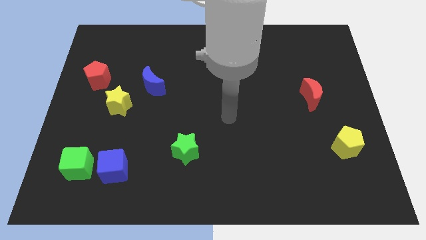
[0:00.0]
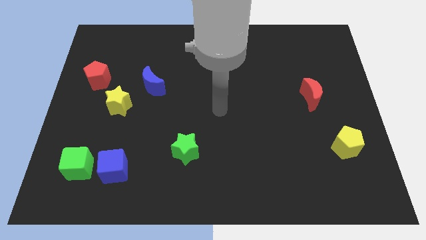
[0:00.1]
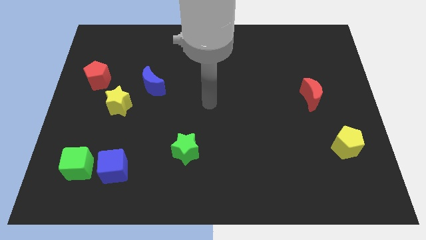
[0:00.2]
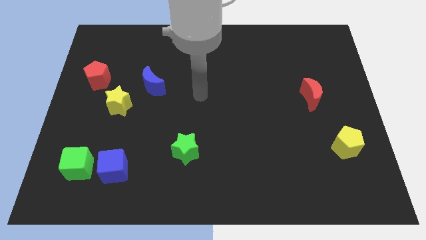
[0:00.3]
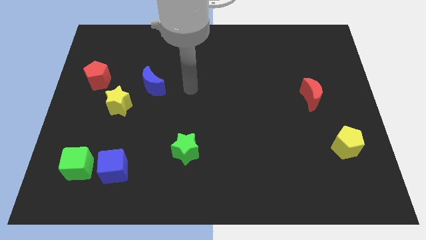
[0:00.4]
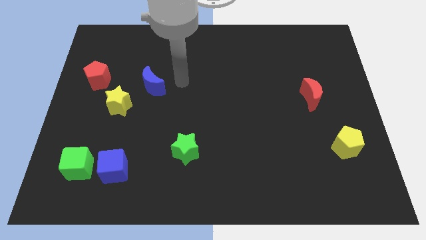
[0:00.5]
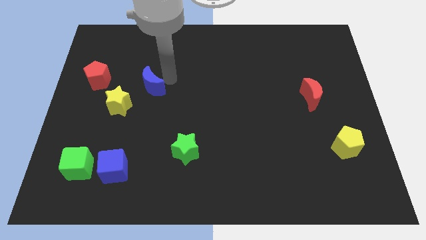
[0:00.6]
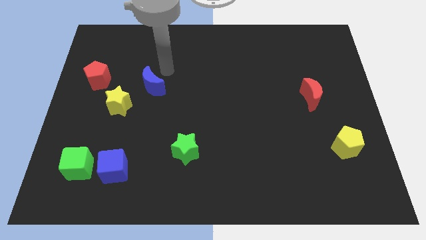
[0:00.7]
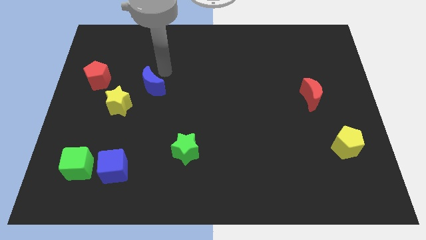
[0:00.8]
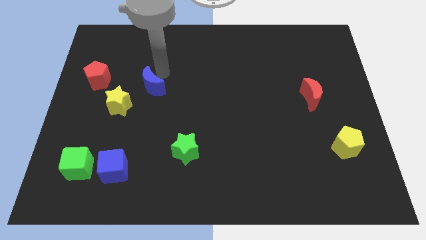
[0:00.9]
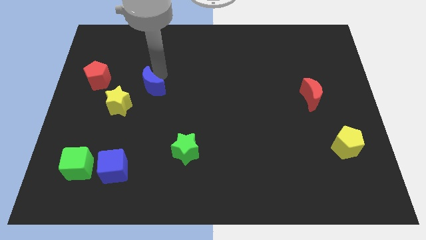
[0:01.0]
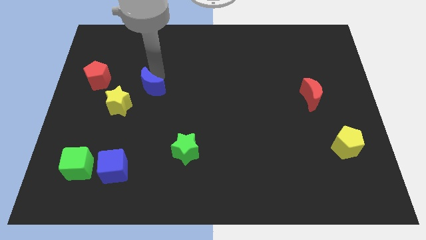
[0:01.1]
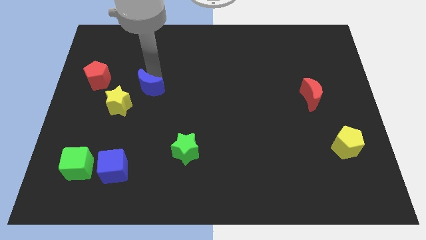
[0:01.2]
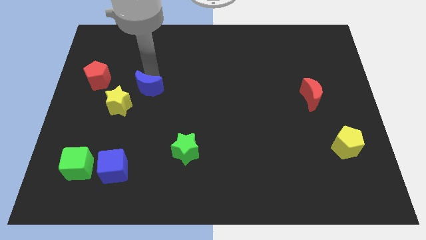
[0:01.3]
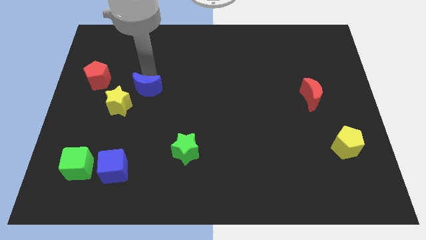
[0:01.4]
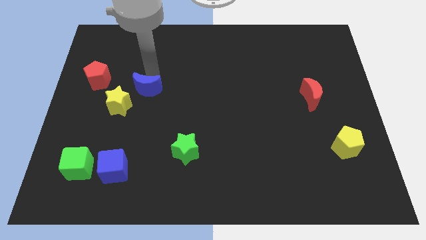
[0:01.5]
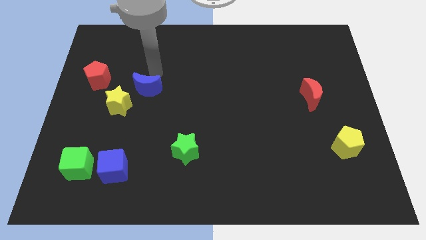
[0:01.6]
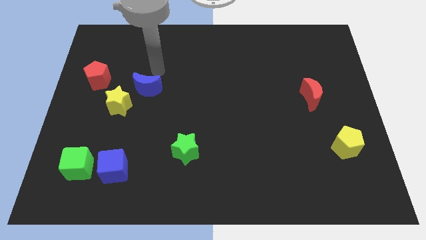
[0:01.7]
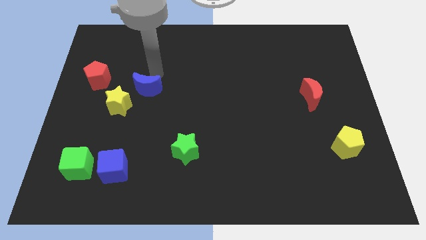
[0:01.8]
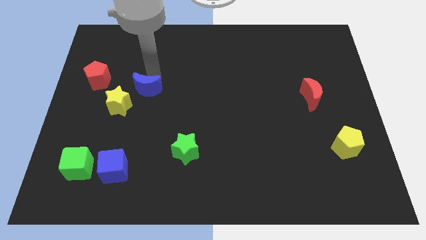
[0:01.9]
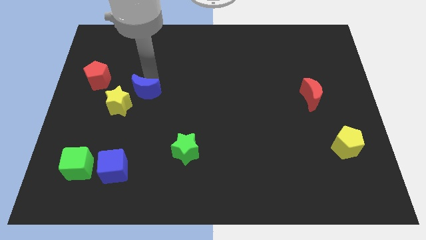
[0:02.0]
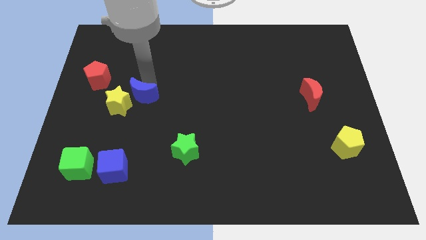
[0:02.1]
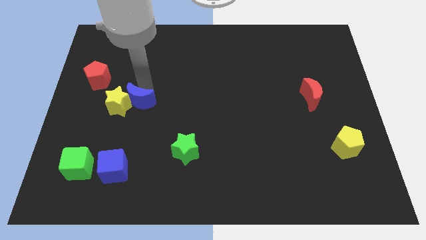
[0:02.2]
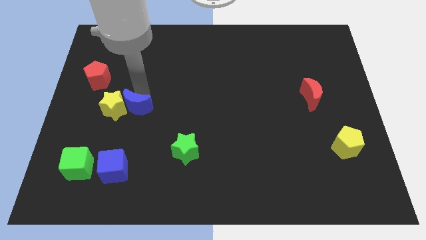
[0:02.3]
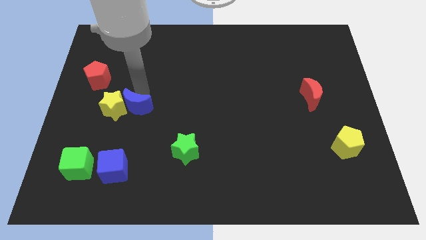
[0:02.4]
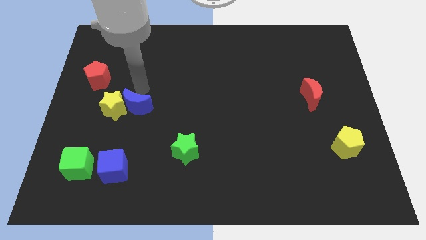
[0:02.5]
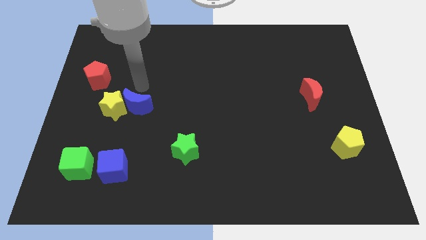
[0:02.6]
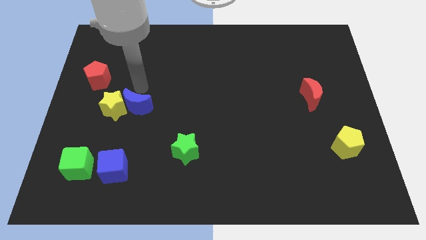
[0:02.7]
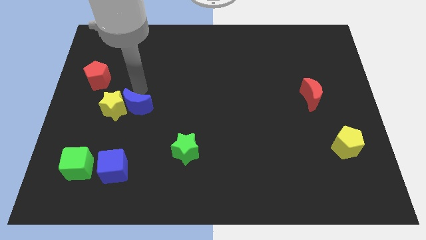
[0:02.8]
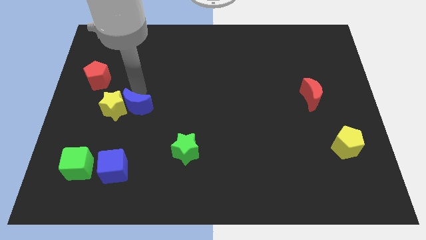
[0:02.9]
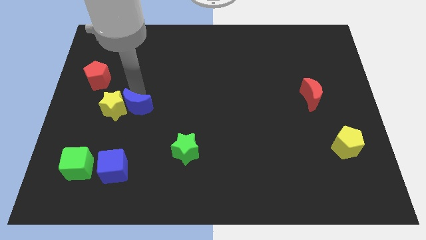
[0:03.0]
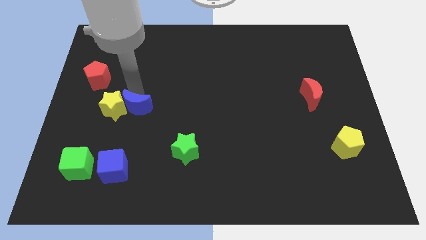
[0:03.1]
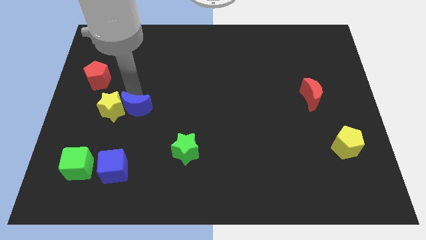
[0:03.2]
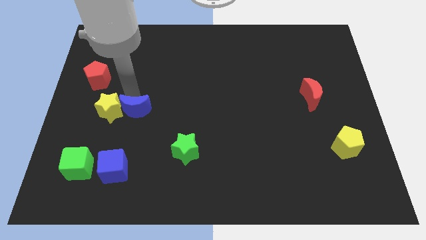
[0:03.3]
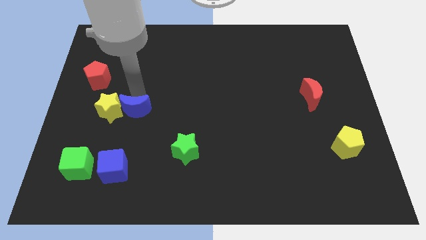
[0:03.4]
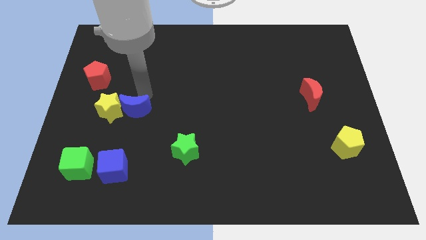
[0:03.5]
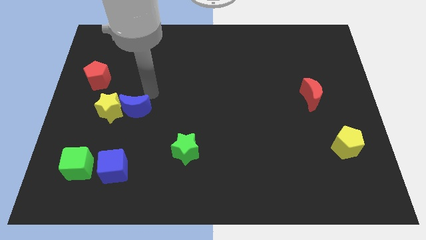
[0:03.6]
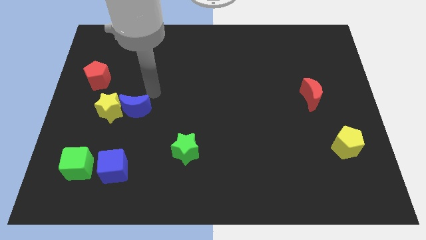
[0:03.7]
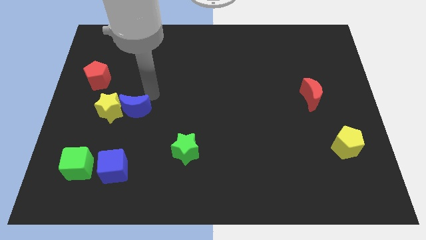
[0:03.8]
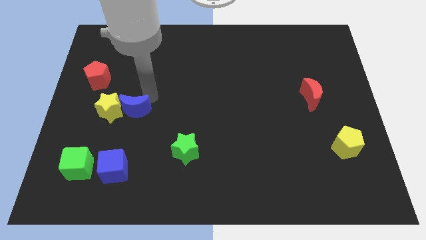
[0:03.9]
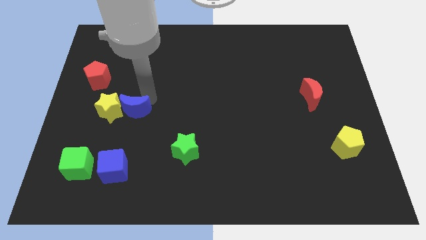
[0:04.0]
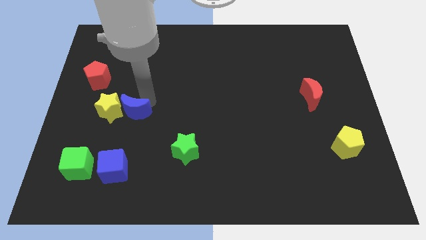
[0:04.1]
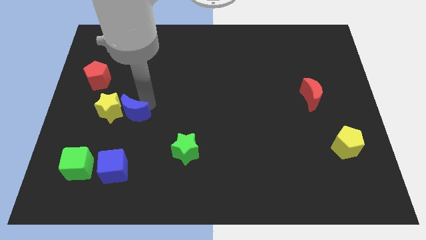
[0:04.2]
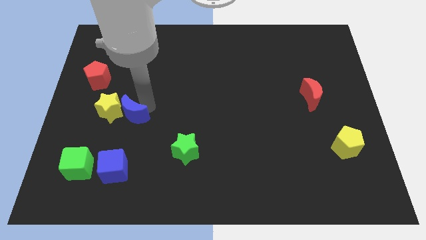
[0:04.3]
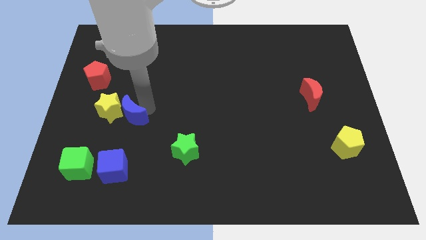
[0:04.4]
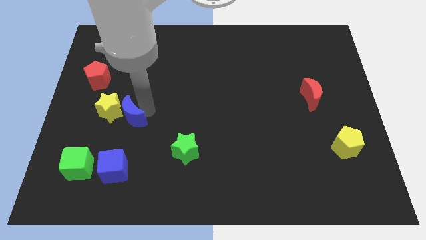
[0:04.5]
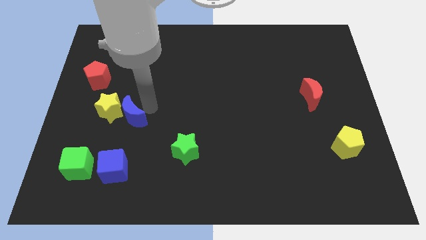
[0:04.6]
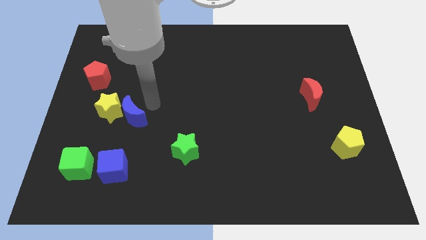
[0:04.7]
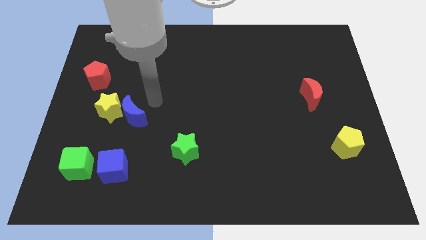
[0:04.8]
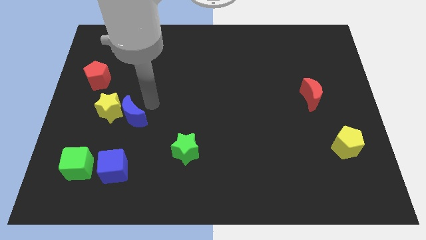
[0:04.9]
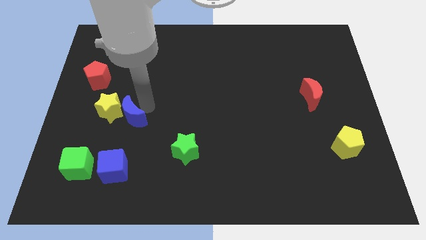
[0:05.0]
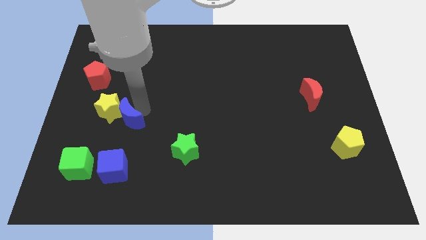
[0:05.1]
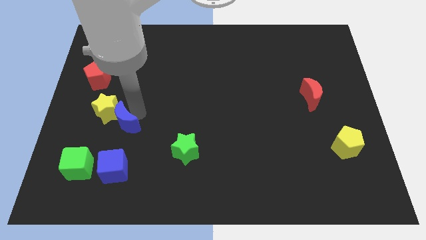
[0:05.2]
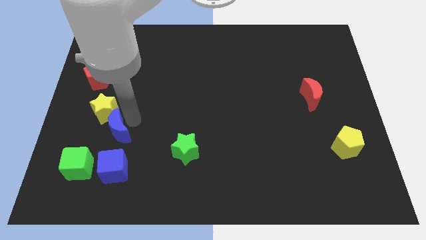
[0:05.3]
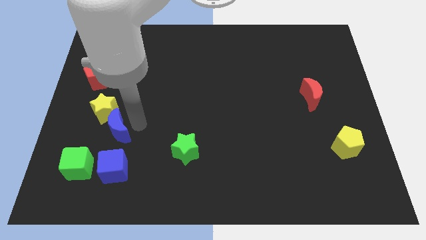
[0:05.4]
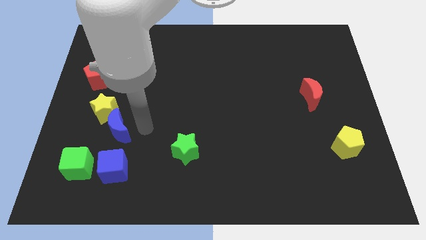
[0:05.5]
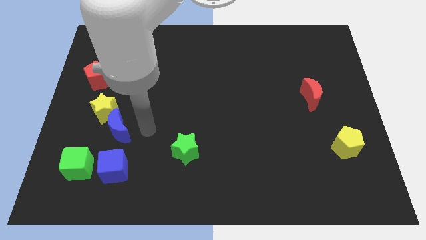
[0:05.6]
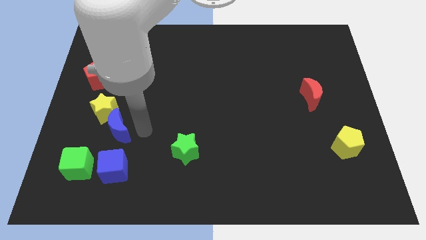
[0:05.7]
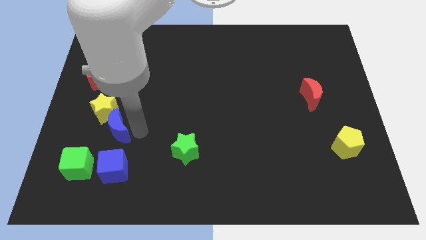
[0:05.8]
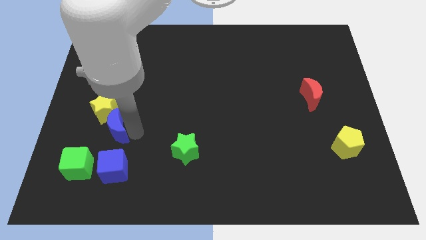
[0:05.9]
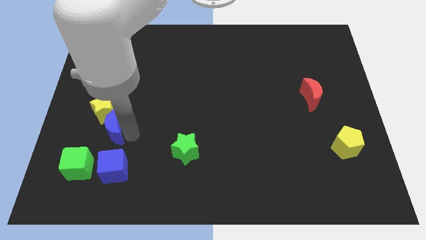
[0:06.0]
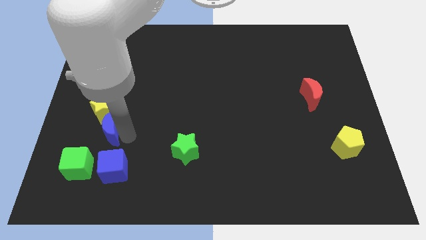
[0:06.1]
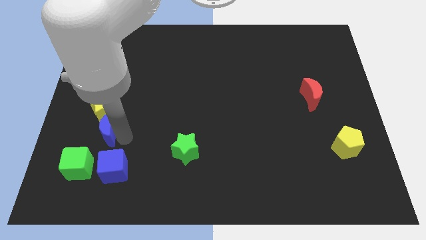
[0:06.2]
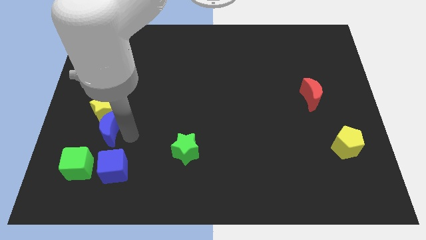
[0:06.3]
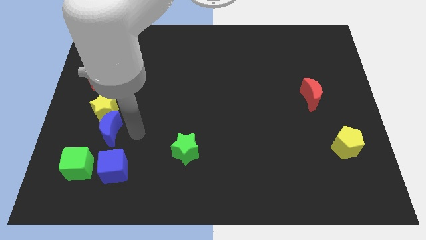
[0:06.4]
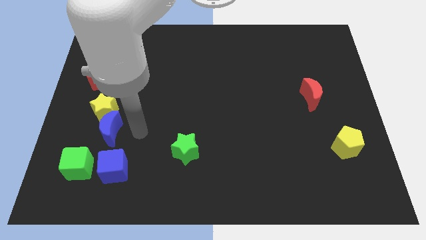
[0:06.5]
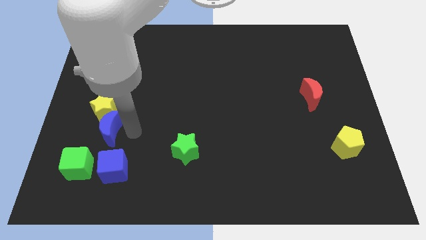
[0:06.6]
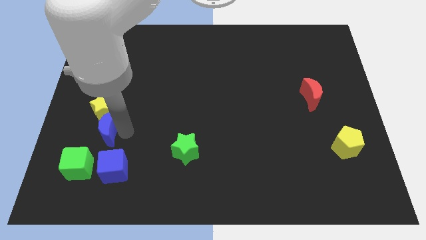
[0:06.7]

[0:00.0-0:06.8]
slide the blue moon diagonally down and to the left of the yellow star
